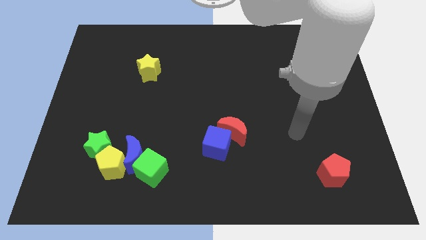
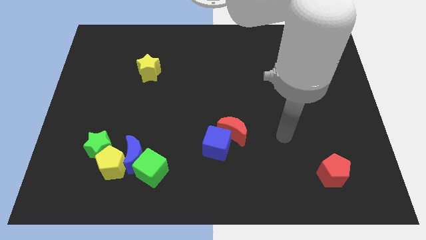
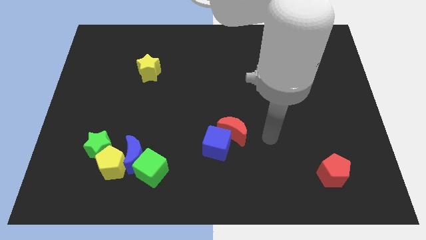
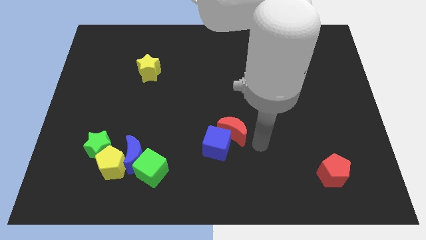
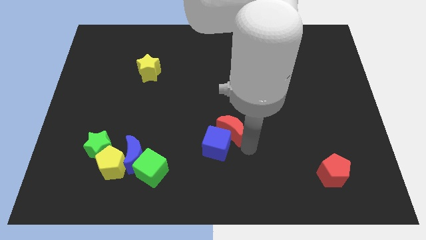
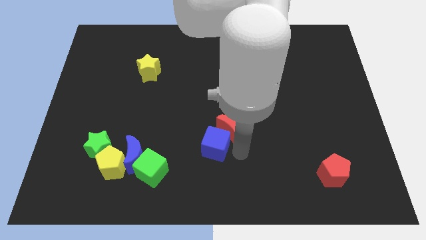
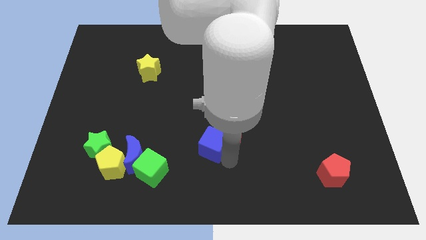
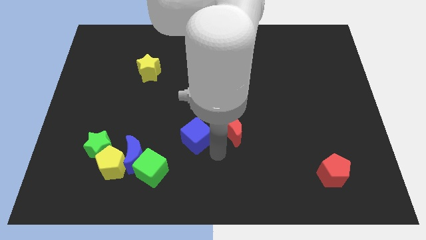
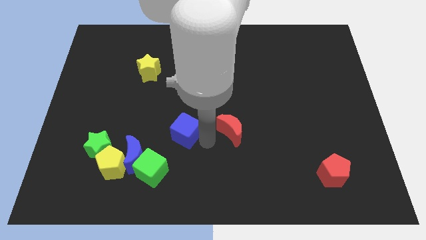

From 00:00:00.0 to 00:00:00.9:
separate the red moon from the blue cube

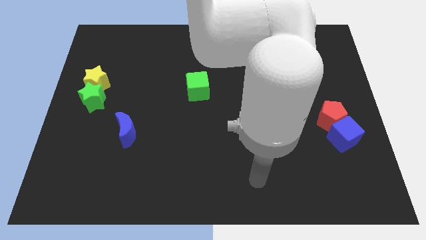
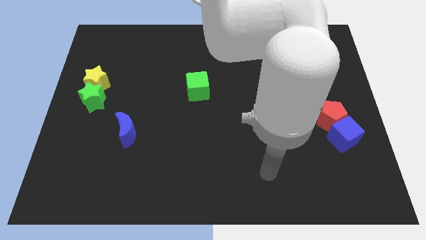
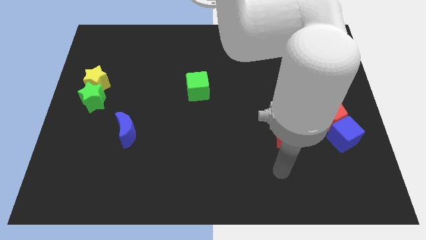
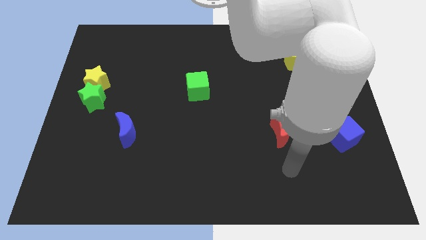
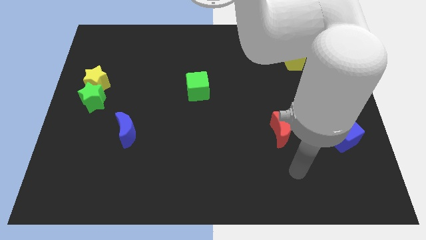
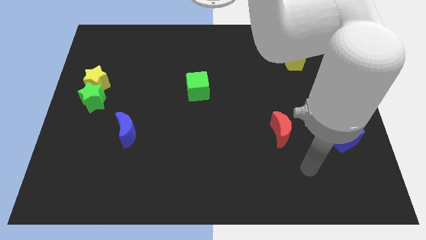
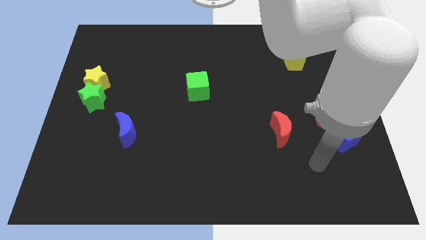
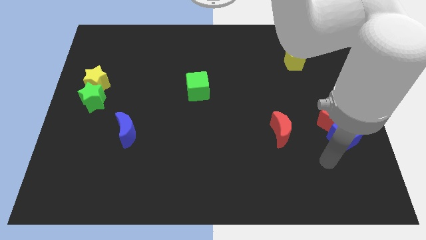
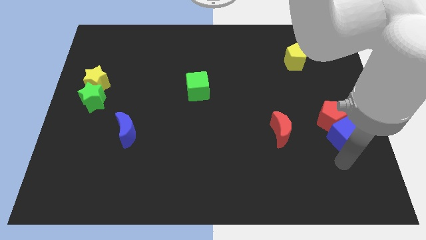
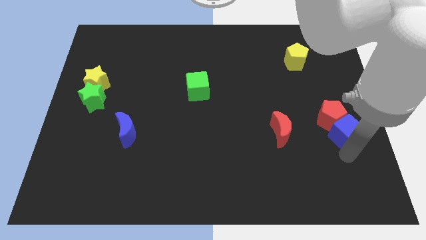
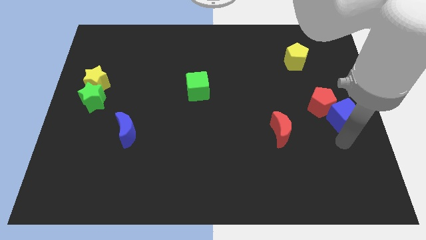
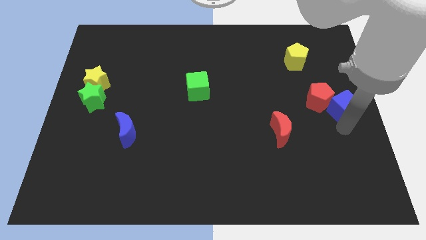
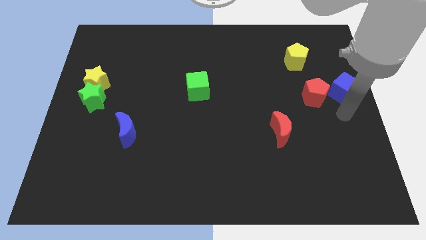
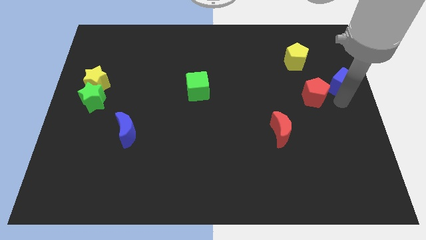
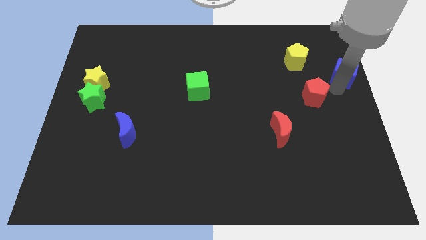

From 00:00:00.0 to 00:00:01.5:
pull the red pentagon apart from the blue cube

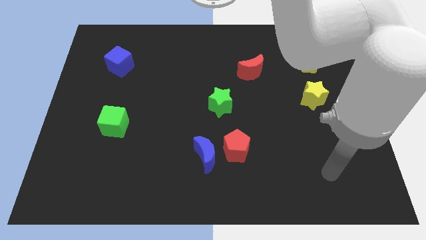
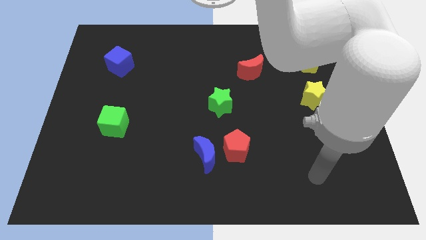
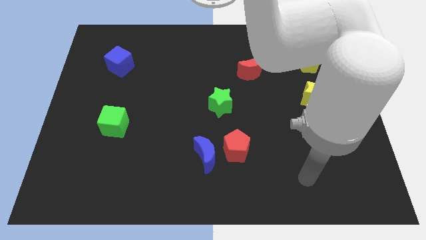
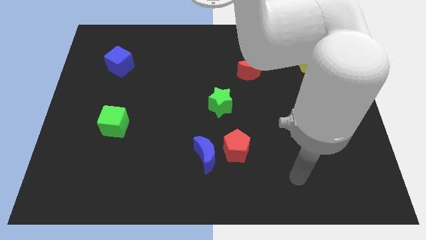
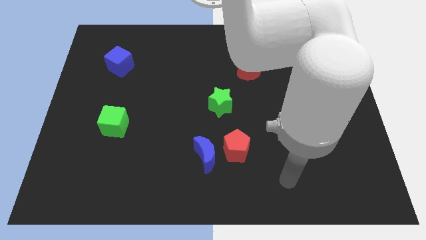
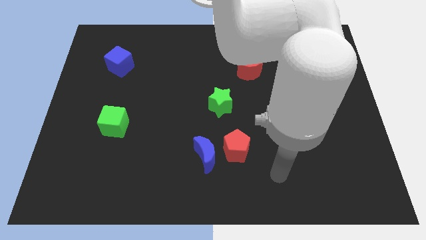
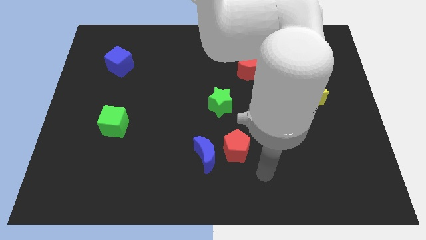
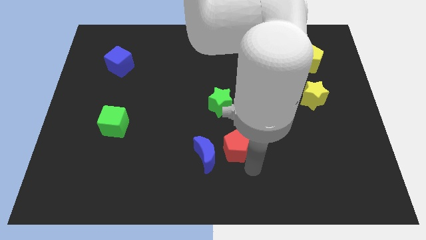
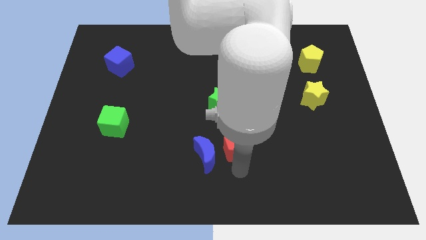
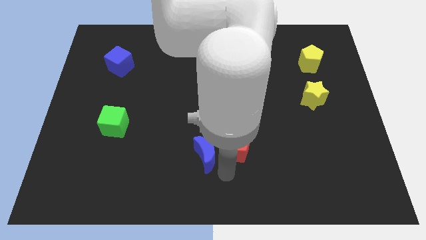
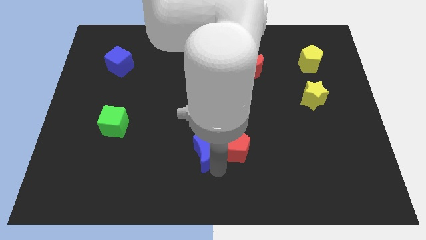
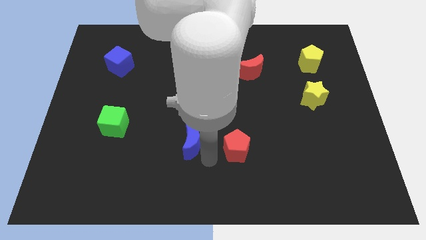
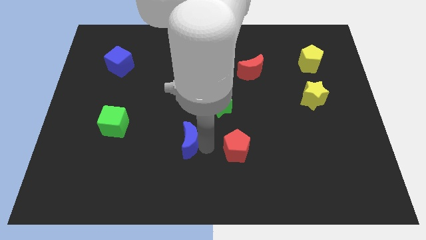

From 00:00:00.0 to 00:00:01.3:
separate the red pentagon from the blue moon

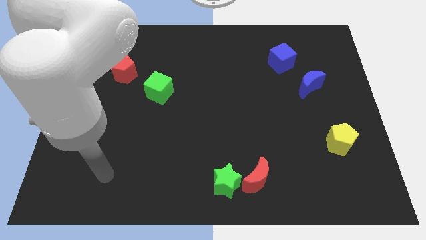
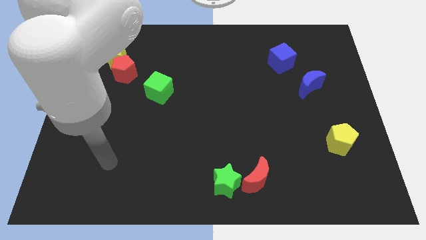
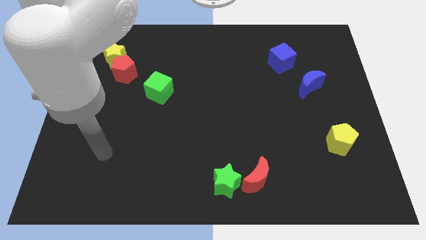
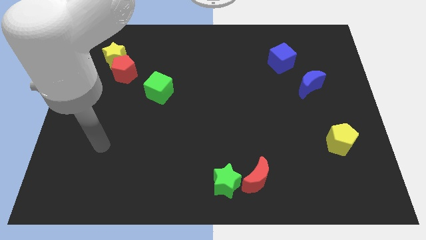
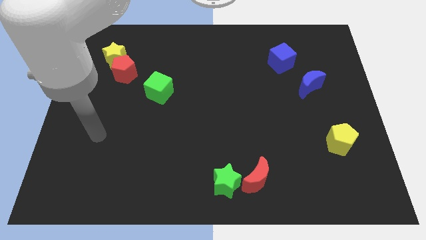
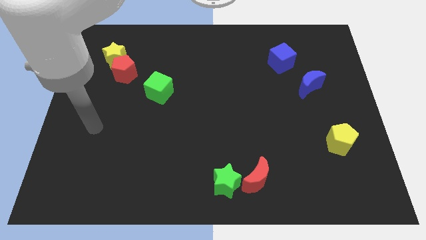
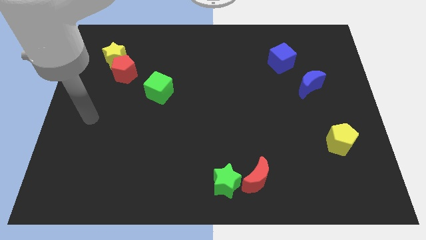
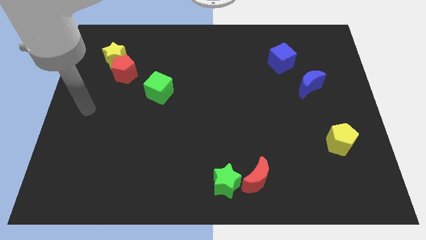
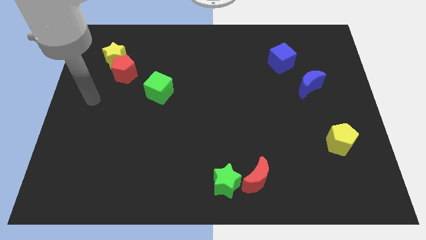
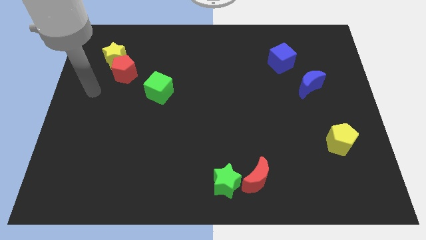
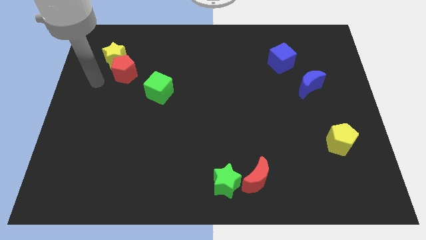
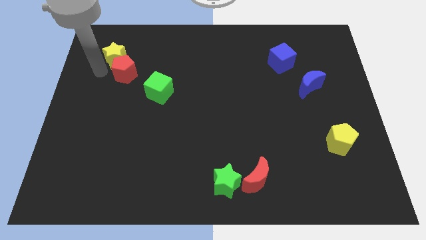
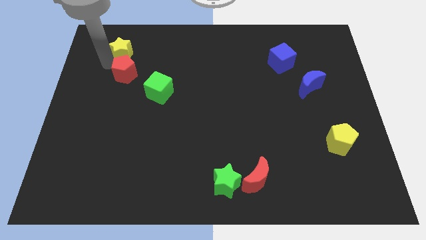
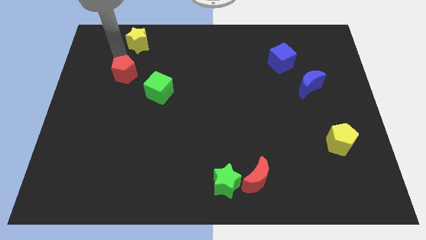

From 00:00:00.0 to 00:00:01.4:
move the red pentagon away from the yellow star

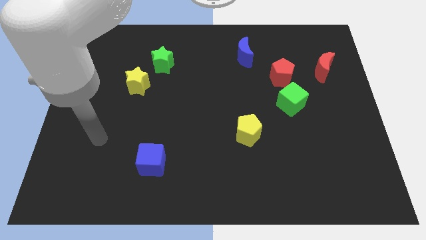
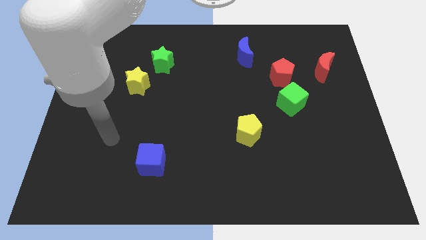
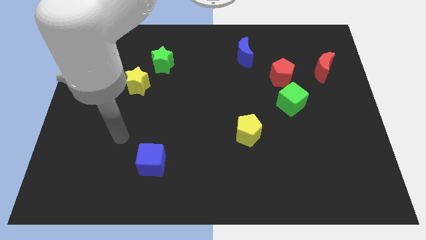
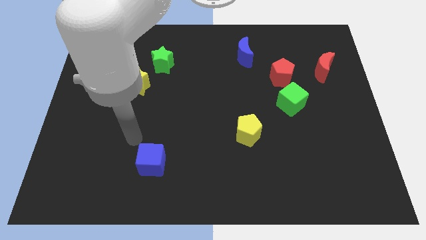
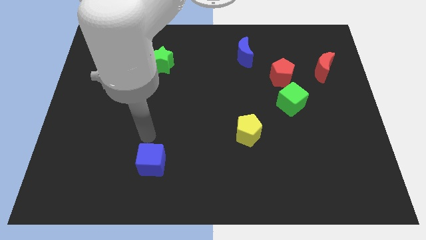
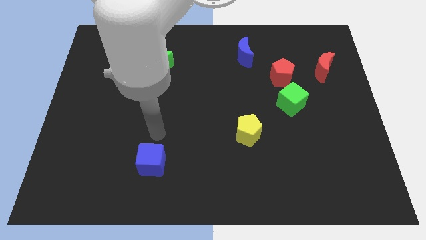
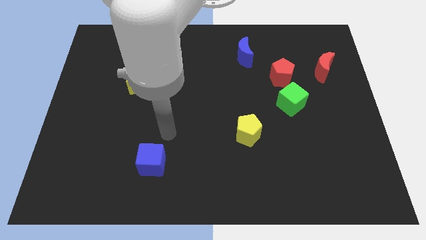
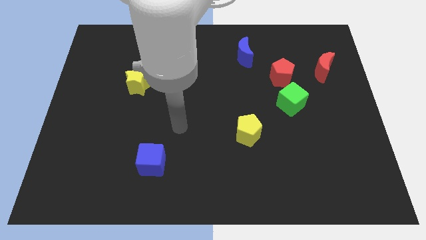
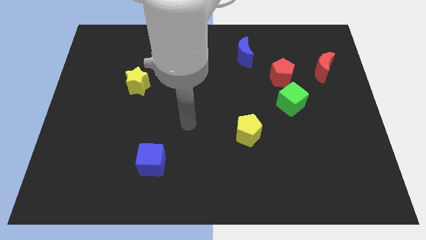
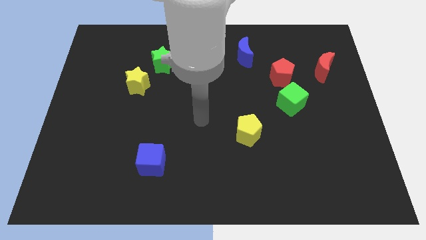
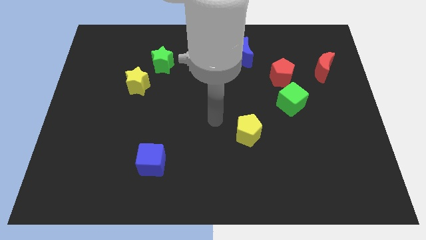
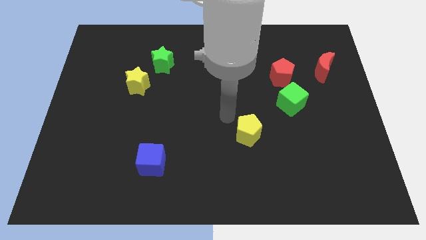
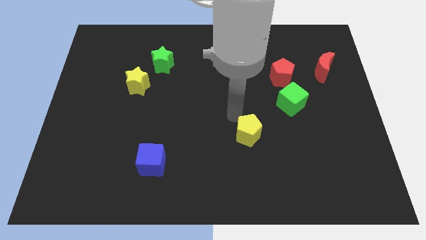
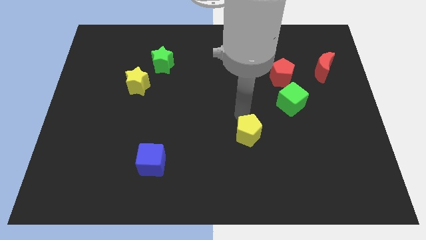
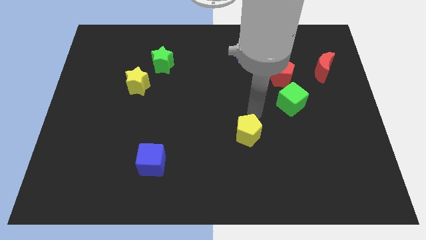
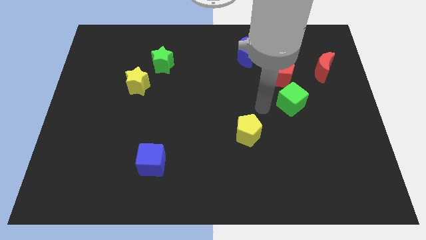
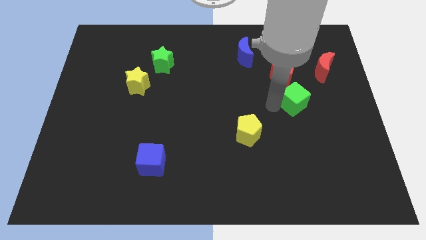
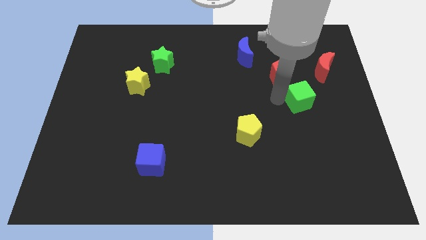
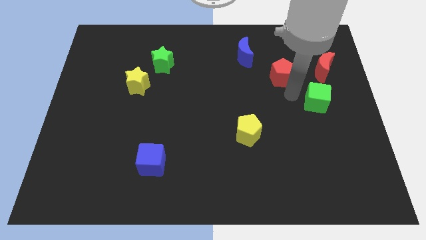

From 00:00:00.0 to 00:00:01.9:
separate the red pentagon from the green cube

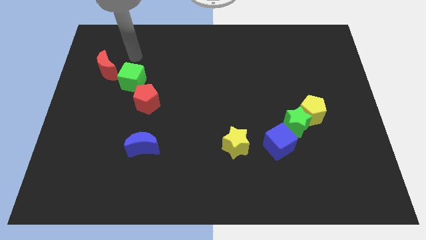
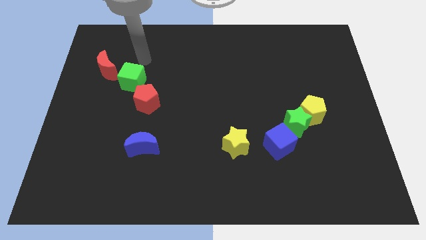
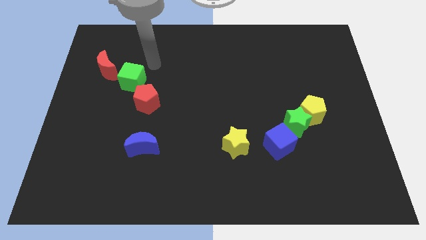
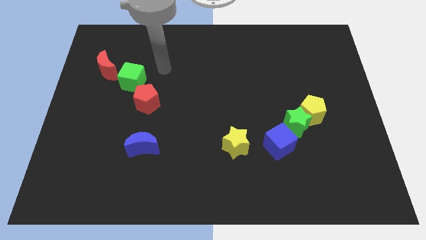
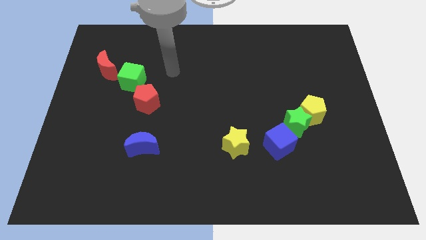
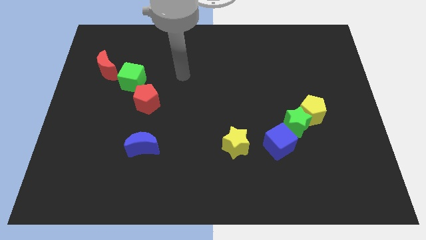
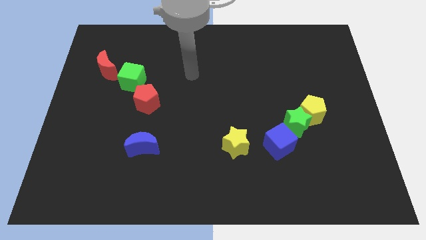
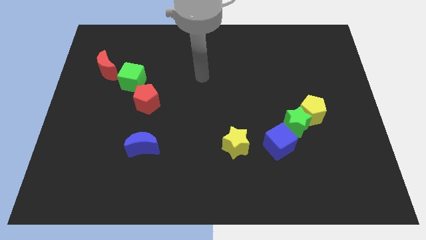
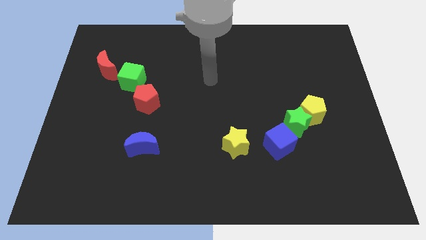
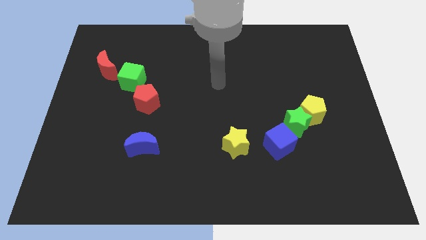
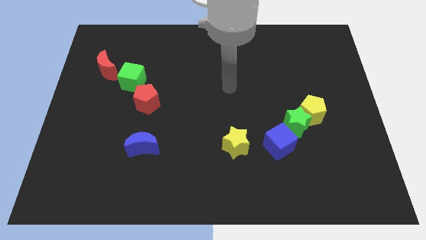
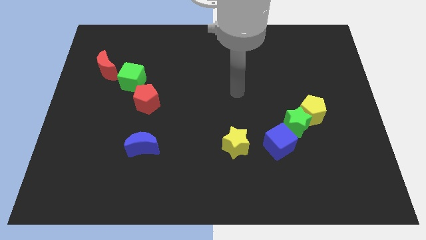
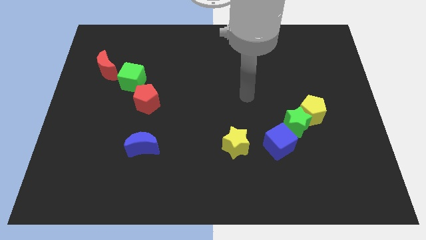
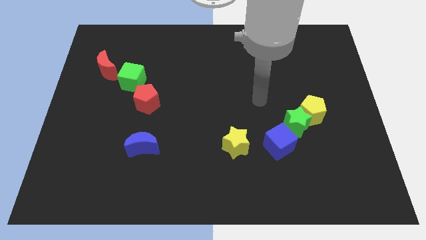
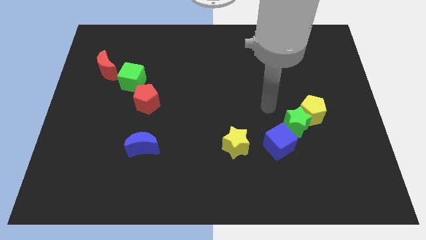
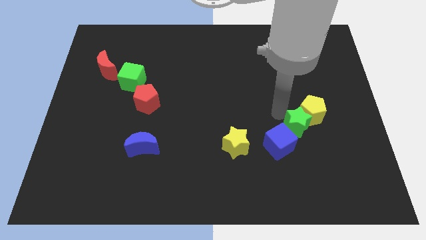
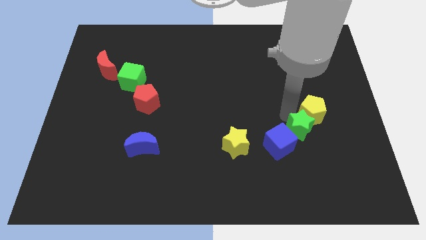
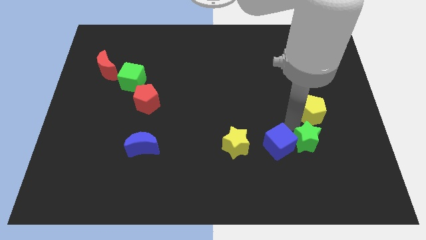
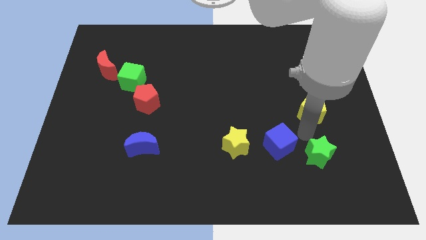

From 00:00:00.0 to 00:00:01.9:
separate the yellow pentagon from the green star

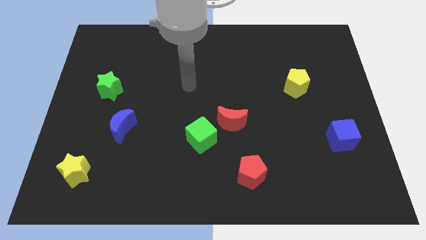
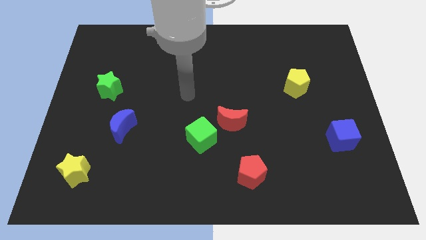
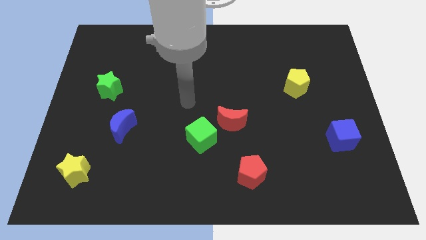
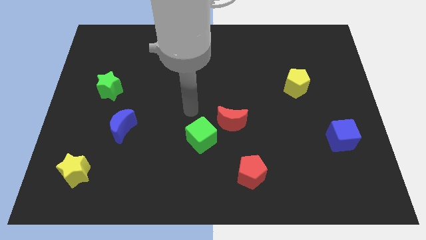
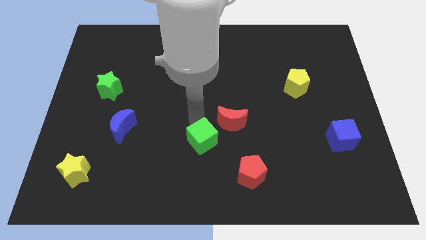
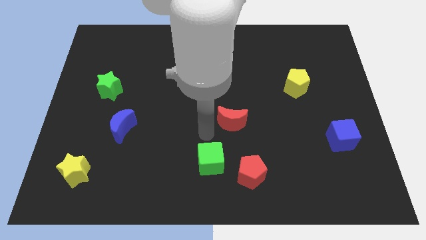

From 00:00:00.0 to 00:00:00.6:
move the red moon away from the green cube
